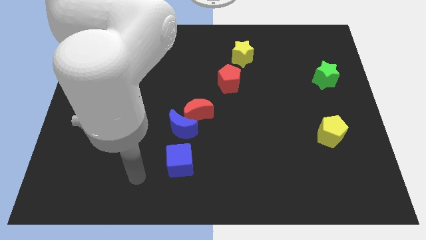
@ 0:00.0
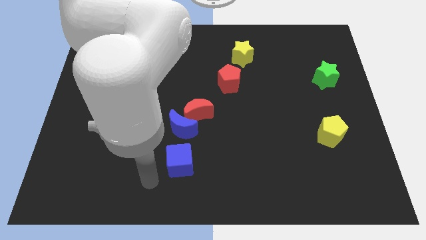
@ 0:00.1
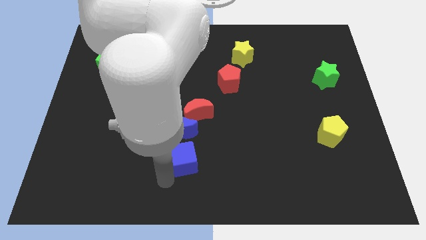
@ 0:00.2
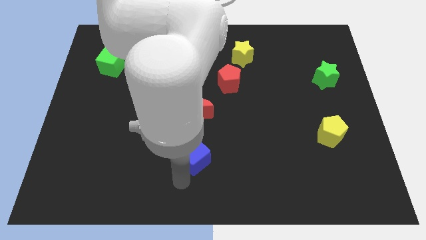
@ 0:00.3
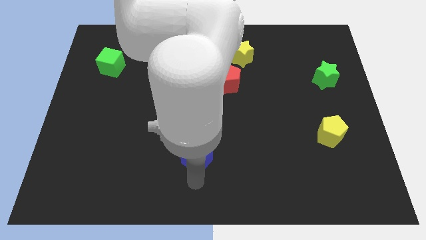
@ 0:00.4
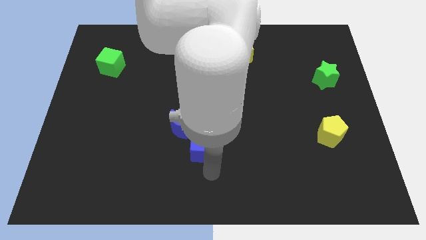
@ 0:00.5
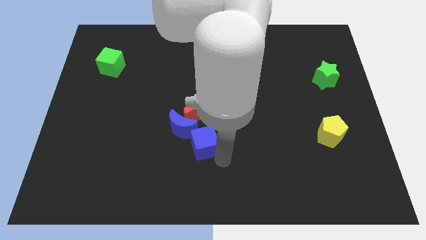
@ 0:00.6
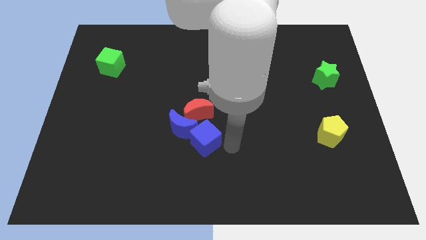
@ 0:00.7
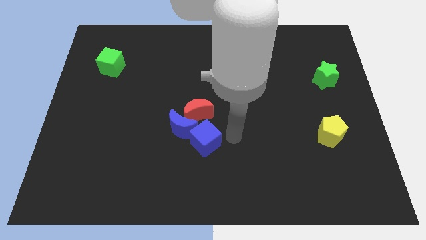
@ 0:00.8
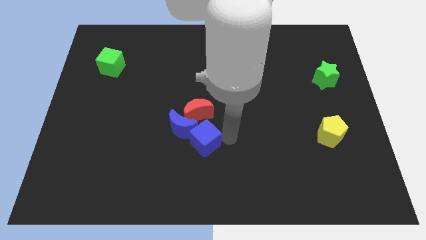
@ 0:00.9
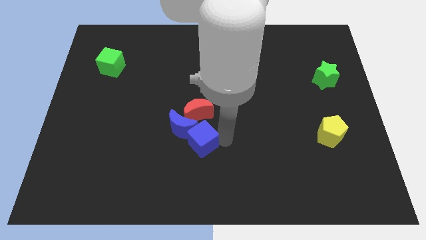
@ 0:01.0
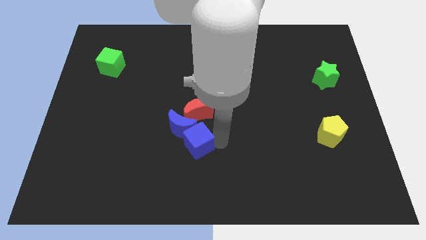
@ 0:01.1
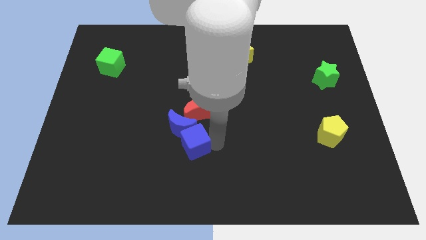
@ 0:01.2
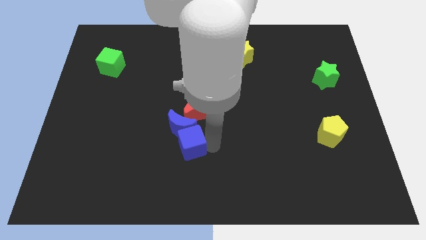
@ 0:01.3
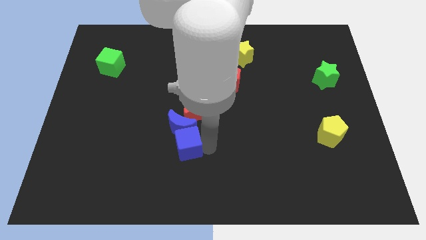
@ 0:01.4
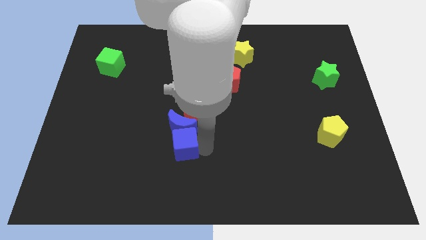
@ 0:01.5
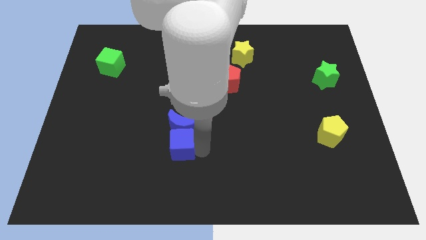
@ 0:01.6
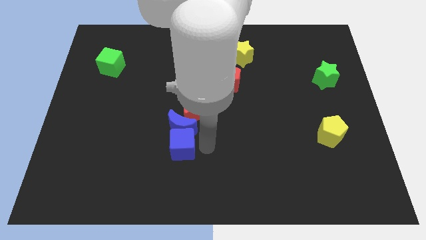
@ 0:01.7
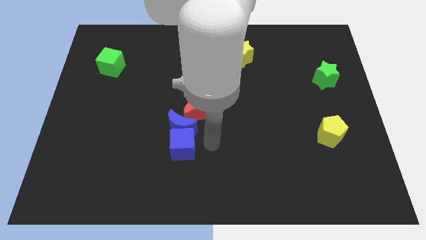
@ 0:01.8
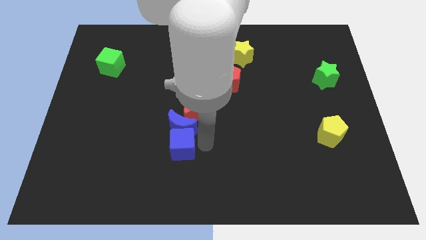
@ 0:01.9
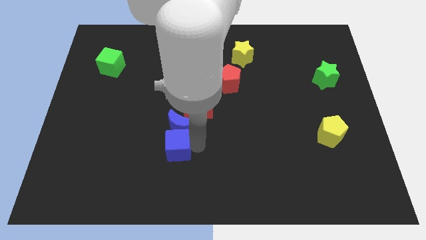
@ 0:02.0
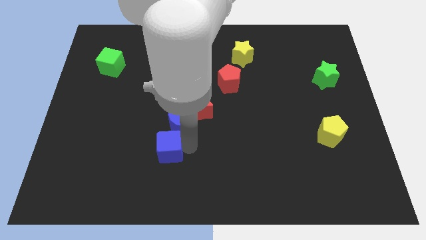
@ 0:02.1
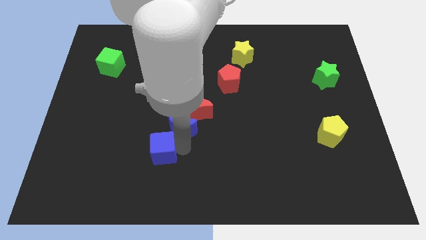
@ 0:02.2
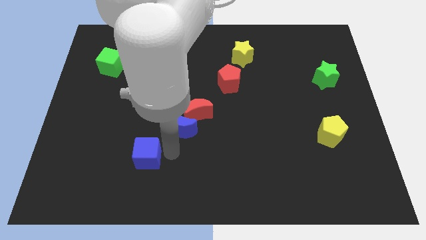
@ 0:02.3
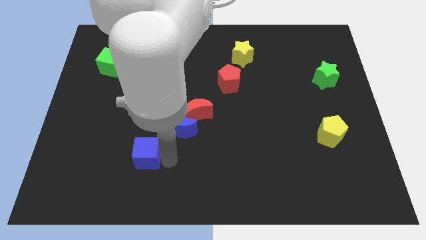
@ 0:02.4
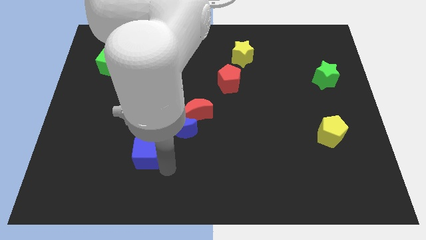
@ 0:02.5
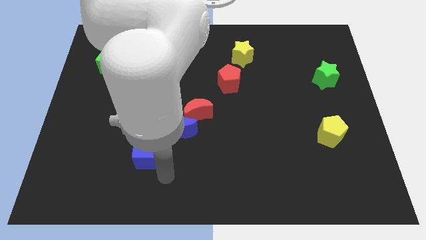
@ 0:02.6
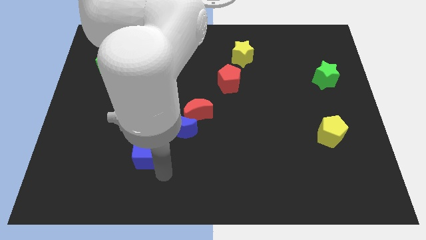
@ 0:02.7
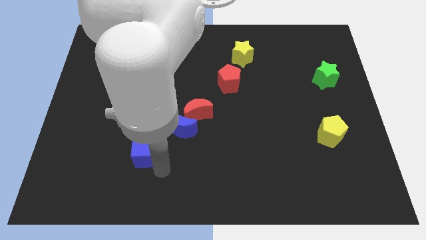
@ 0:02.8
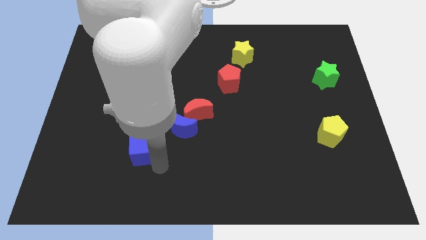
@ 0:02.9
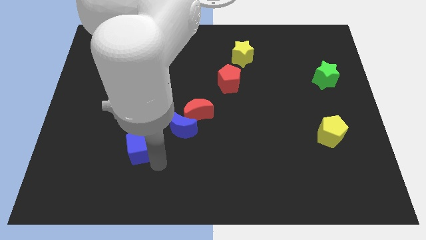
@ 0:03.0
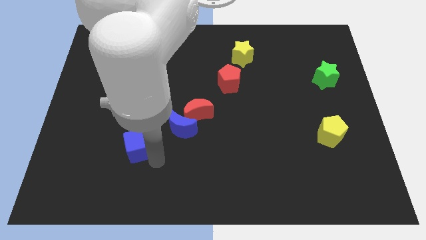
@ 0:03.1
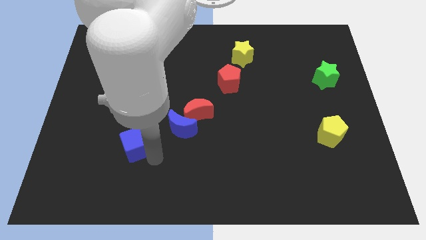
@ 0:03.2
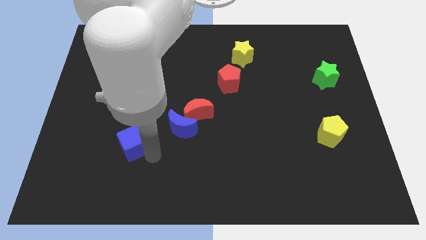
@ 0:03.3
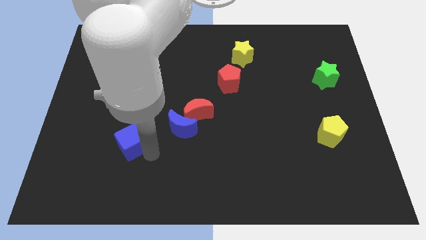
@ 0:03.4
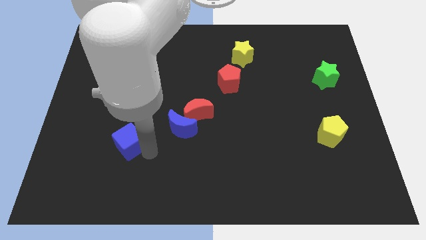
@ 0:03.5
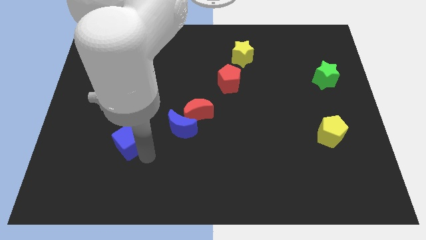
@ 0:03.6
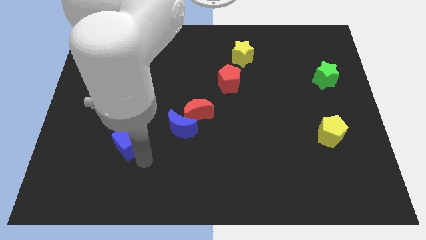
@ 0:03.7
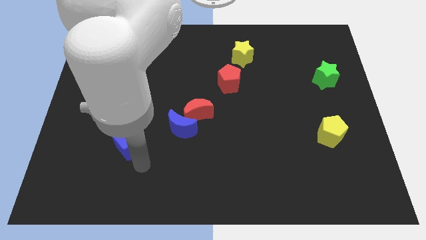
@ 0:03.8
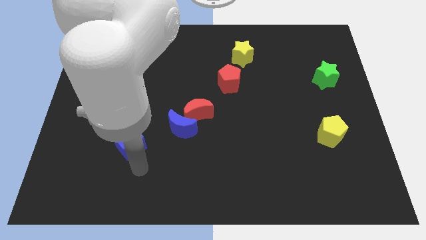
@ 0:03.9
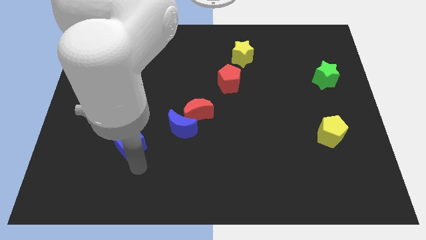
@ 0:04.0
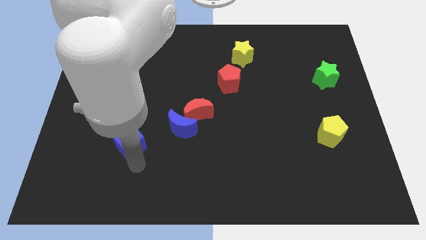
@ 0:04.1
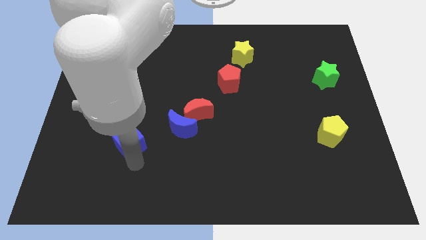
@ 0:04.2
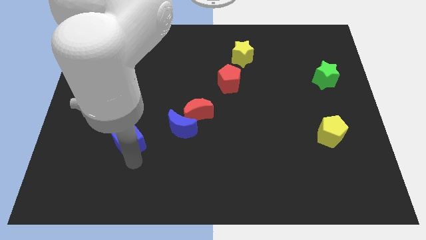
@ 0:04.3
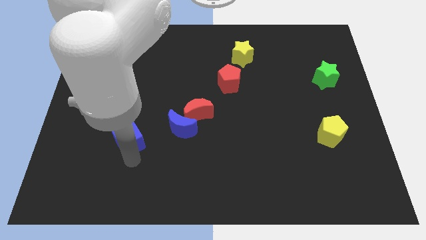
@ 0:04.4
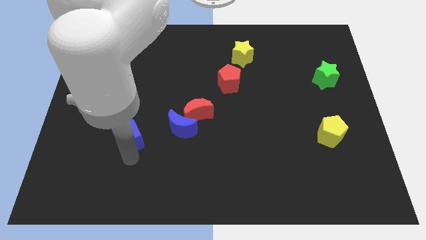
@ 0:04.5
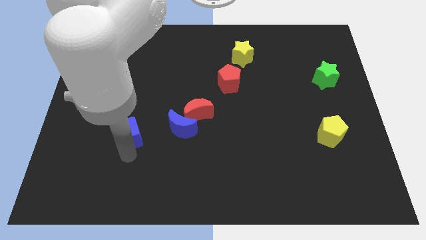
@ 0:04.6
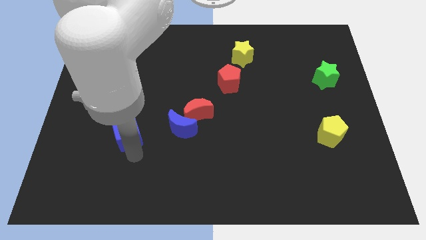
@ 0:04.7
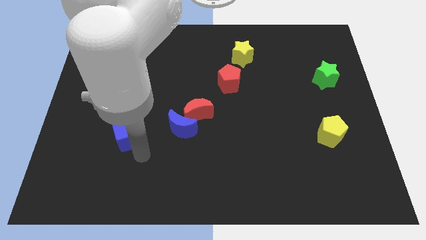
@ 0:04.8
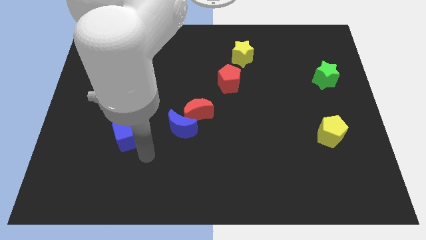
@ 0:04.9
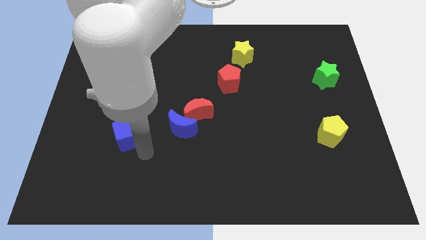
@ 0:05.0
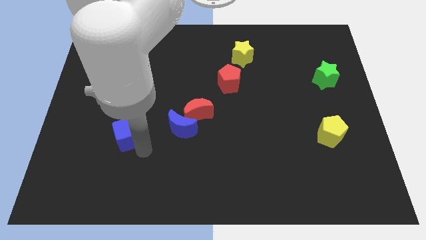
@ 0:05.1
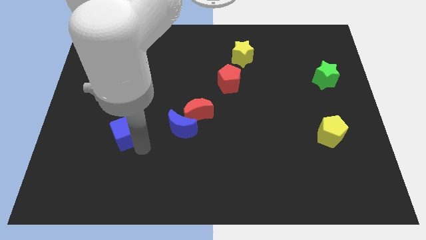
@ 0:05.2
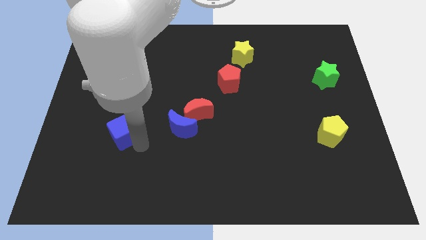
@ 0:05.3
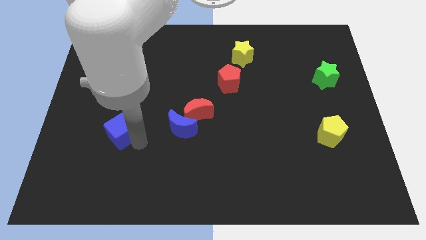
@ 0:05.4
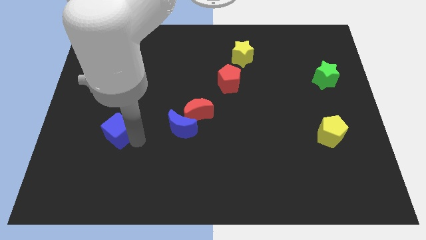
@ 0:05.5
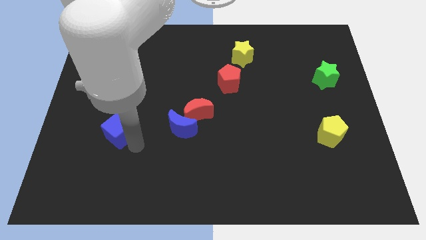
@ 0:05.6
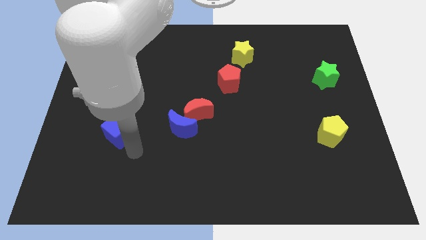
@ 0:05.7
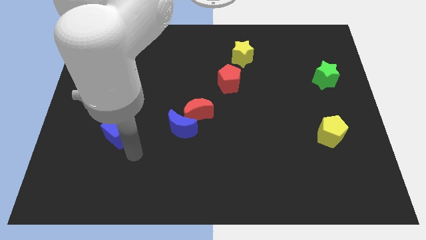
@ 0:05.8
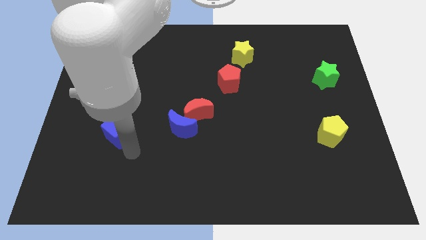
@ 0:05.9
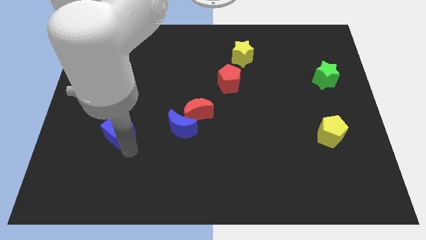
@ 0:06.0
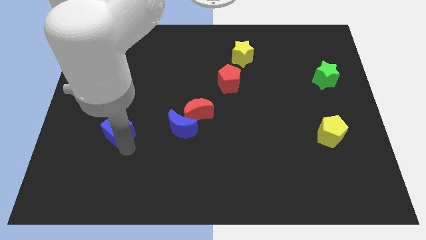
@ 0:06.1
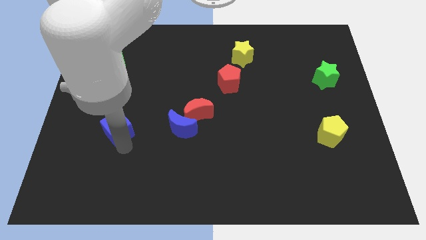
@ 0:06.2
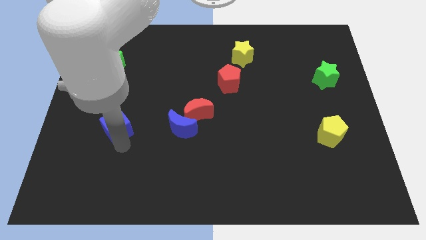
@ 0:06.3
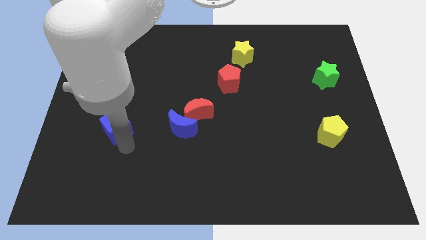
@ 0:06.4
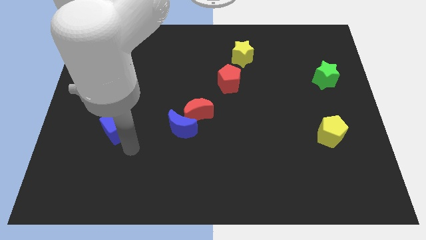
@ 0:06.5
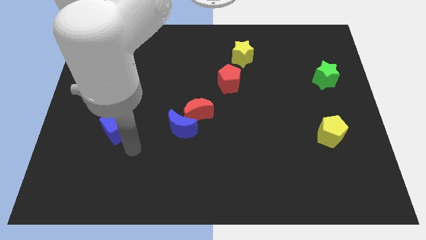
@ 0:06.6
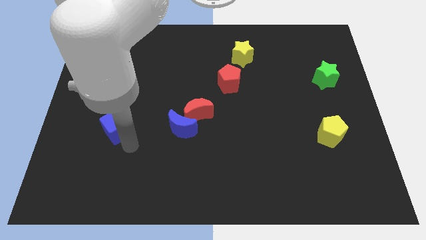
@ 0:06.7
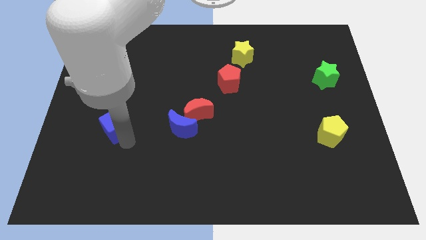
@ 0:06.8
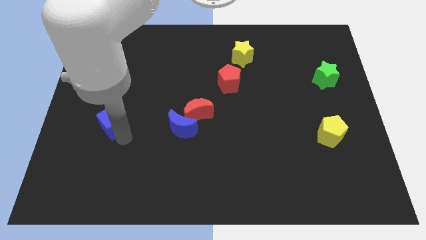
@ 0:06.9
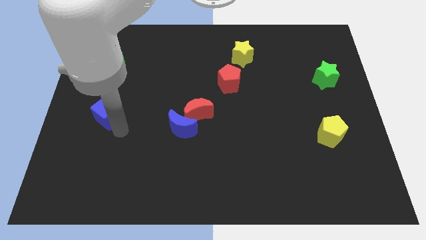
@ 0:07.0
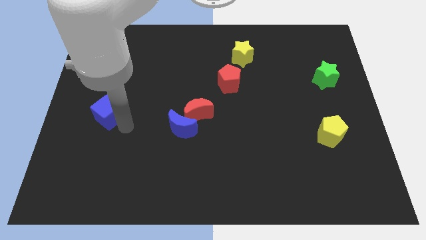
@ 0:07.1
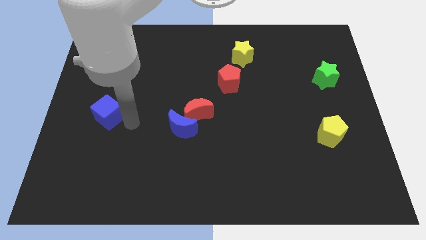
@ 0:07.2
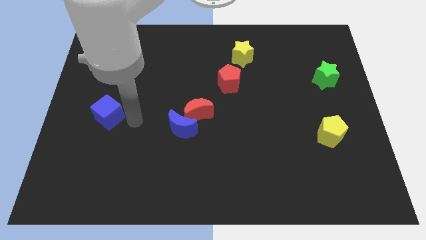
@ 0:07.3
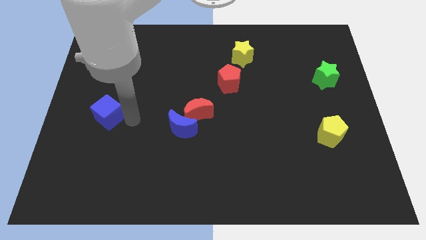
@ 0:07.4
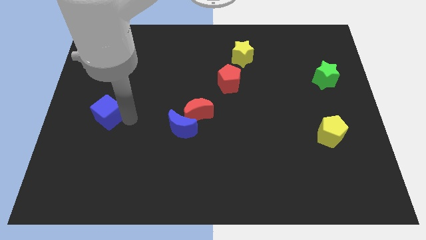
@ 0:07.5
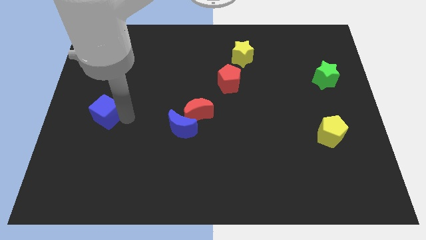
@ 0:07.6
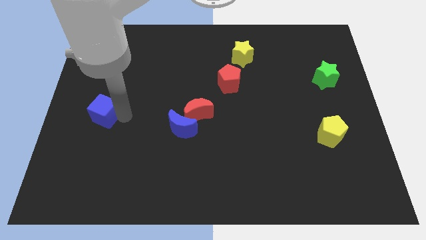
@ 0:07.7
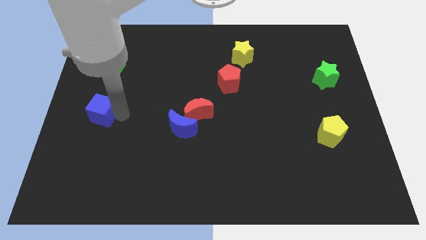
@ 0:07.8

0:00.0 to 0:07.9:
put the blue cube to the left side of the board
